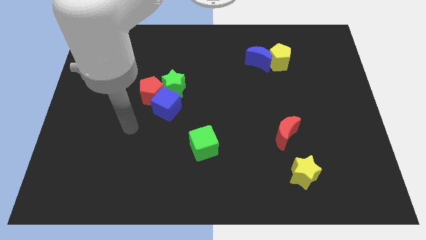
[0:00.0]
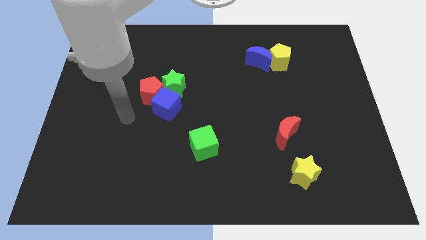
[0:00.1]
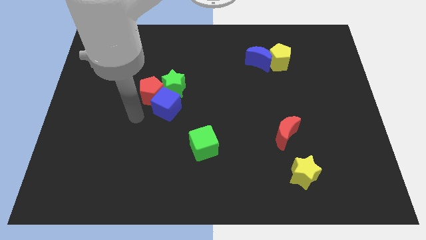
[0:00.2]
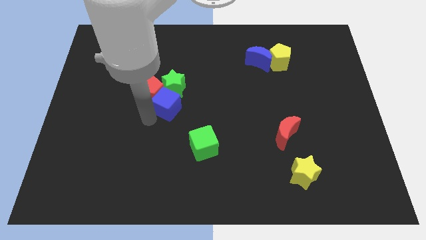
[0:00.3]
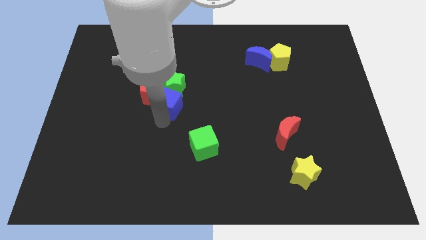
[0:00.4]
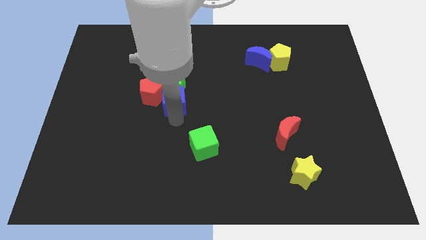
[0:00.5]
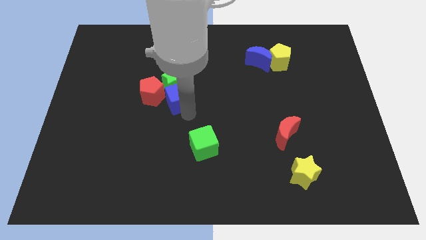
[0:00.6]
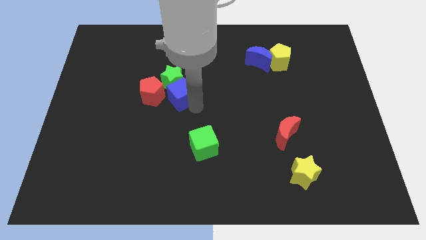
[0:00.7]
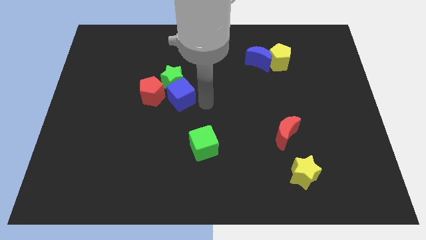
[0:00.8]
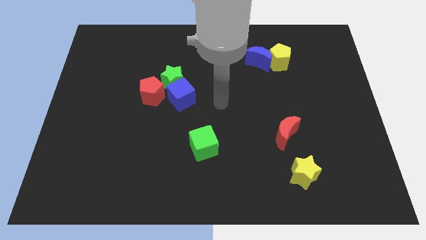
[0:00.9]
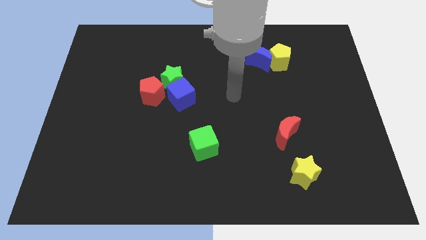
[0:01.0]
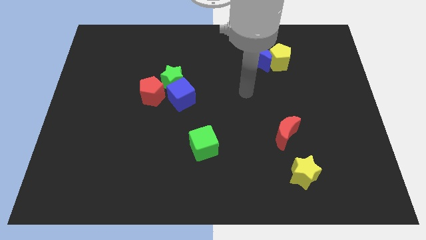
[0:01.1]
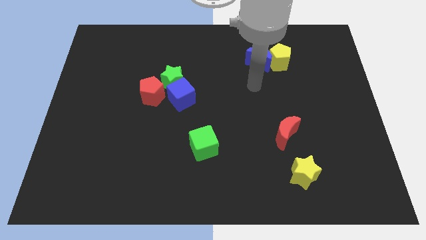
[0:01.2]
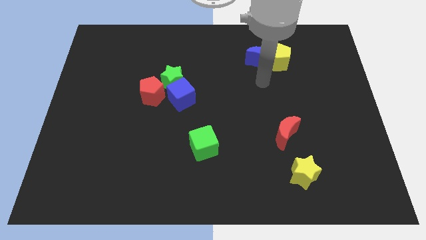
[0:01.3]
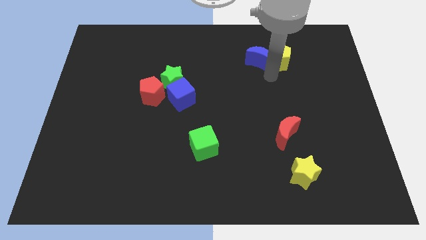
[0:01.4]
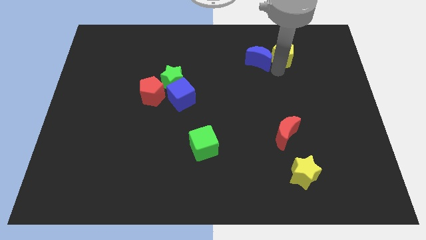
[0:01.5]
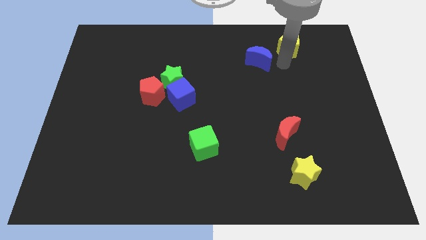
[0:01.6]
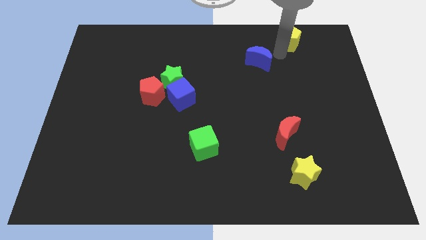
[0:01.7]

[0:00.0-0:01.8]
separate the blue moon from the yellow pentagon

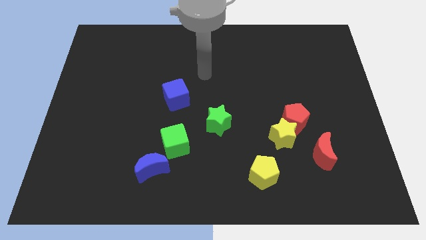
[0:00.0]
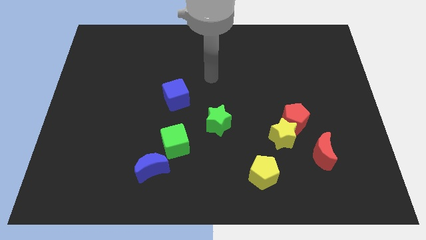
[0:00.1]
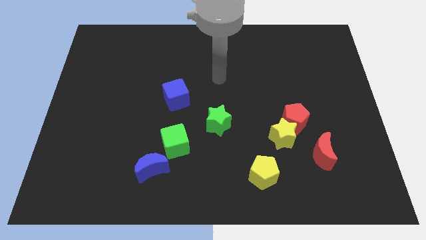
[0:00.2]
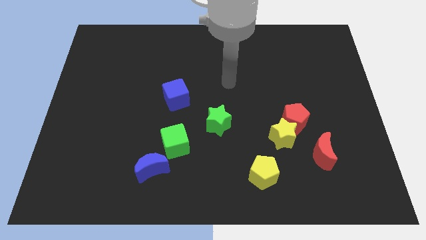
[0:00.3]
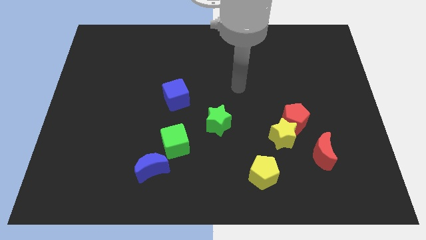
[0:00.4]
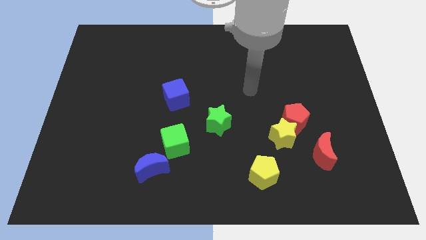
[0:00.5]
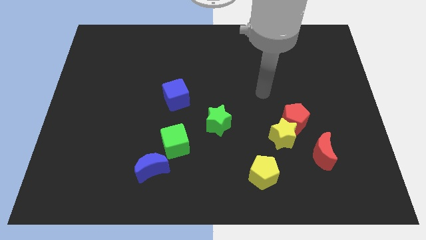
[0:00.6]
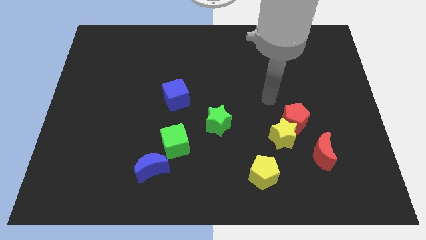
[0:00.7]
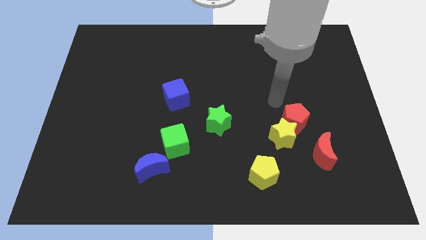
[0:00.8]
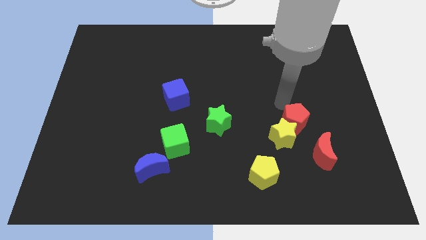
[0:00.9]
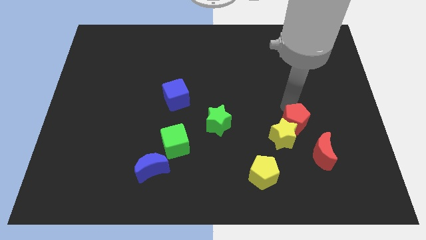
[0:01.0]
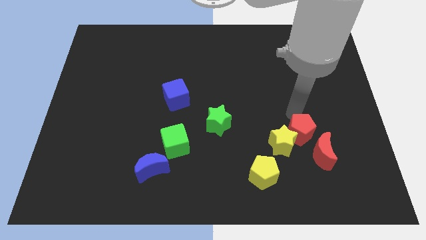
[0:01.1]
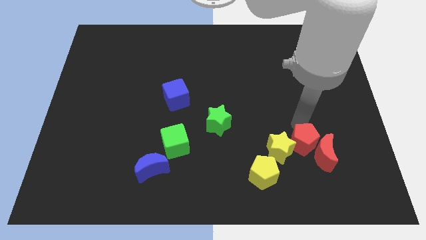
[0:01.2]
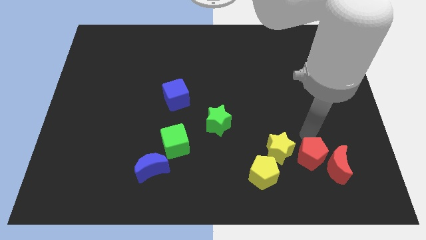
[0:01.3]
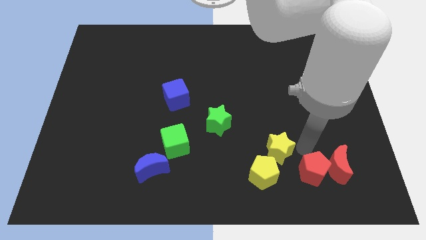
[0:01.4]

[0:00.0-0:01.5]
separate the yellow star from the red pentagon and red moon

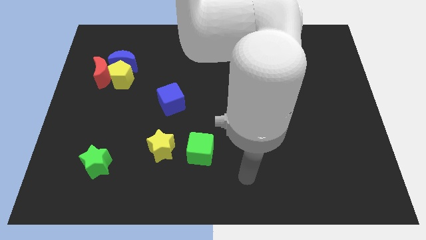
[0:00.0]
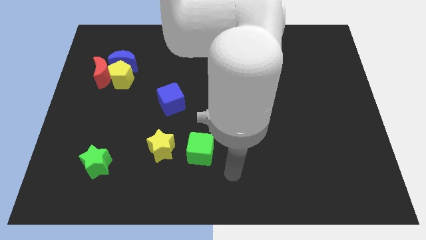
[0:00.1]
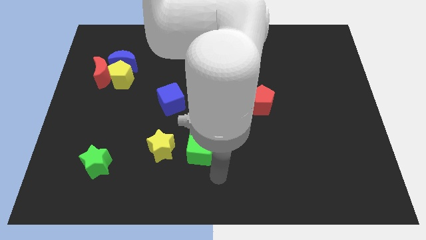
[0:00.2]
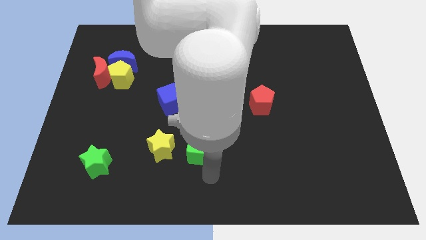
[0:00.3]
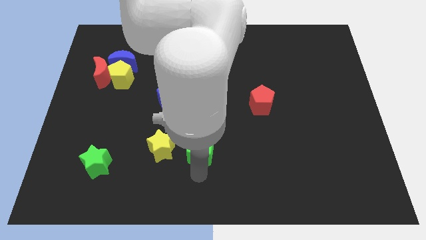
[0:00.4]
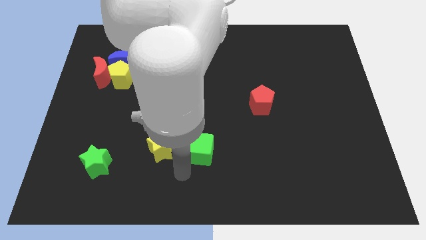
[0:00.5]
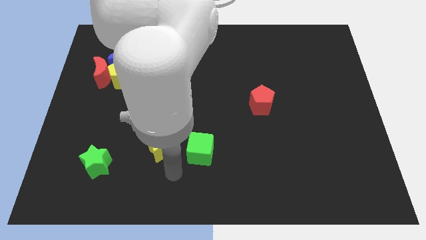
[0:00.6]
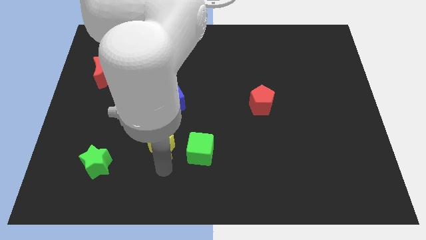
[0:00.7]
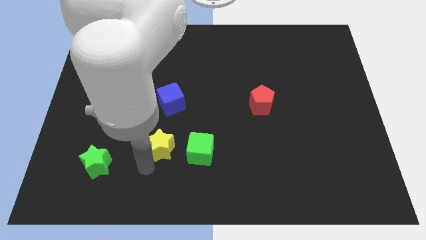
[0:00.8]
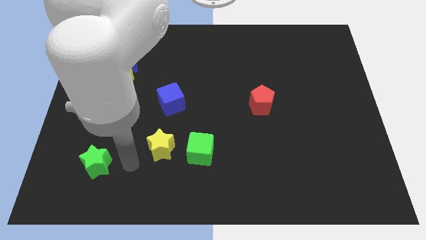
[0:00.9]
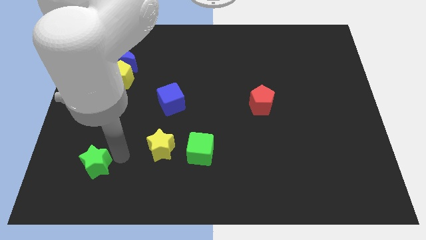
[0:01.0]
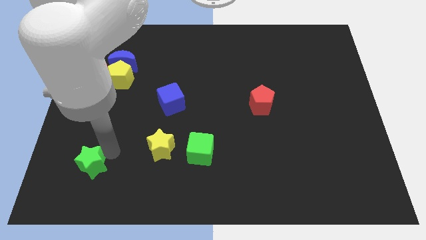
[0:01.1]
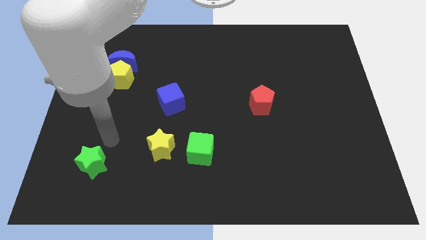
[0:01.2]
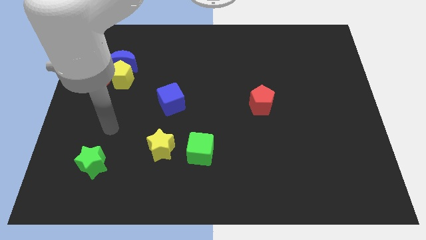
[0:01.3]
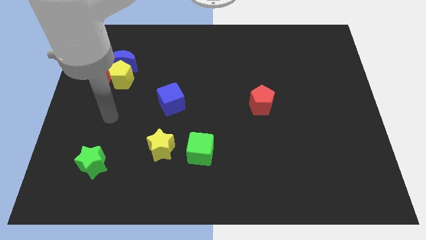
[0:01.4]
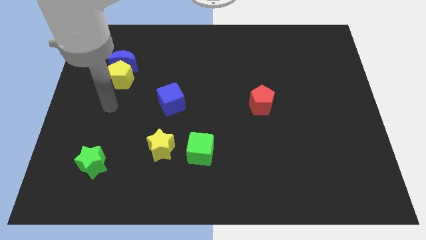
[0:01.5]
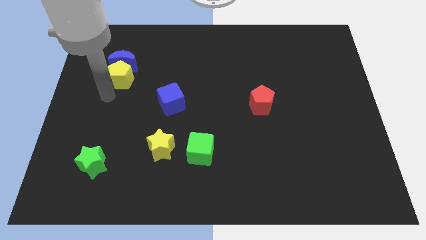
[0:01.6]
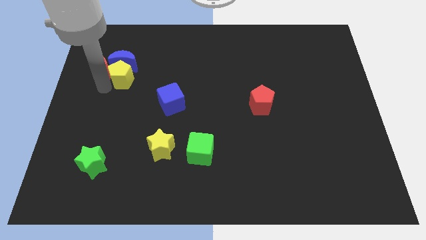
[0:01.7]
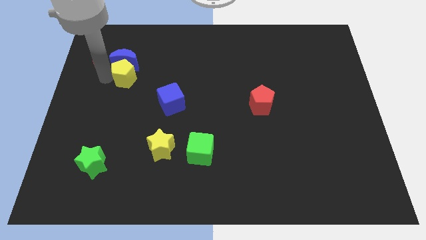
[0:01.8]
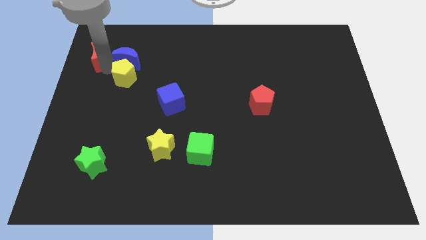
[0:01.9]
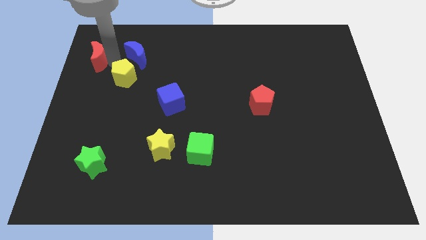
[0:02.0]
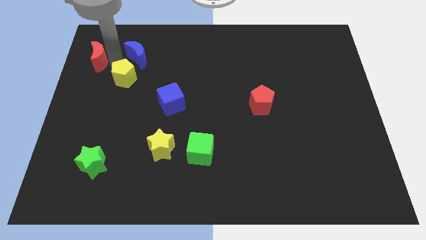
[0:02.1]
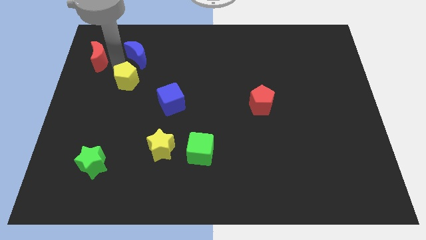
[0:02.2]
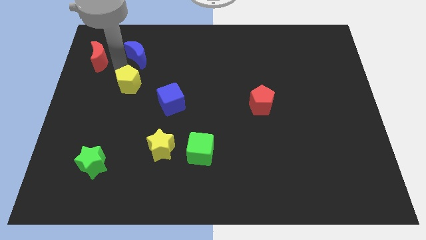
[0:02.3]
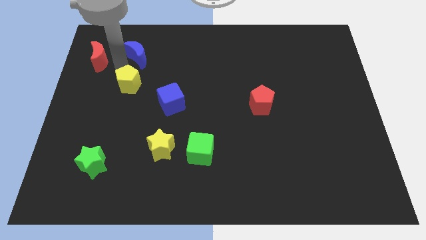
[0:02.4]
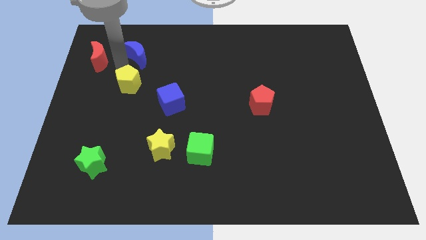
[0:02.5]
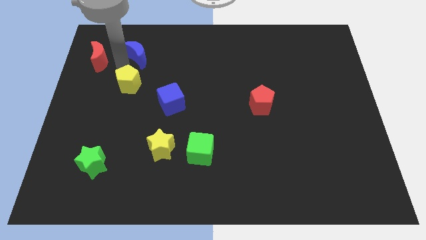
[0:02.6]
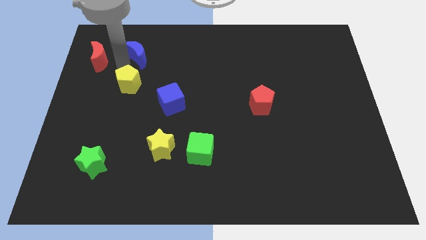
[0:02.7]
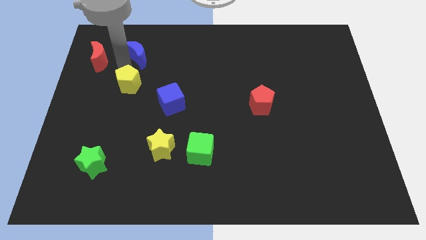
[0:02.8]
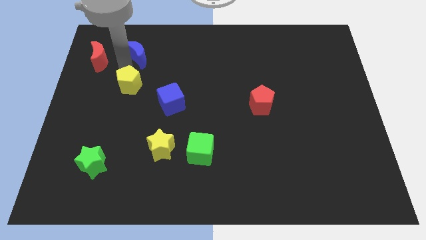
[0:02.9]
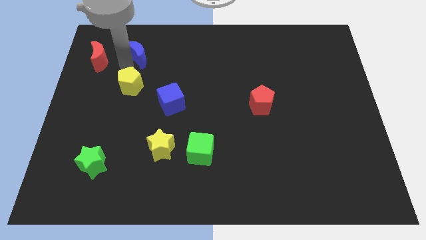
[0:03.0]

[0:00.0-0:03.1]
move the yellow pentagon away from the blue moon and red moon

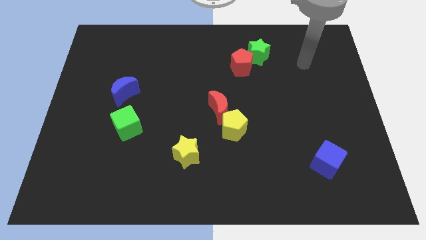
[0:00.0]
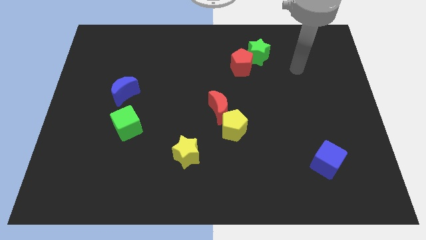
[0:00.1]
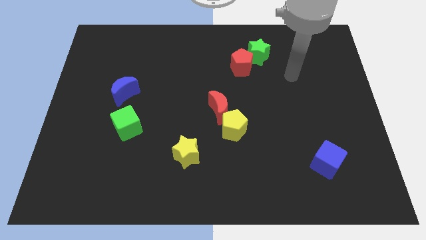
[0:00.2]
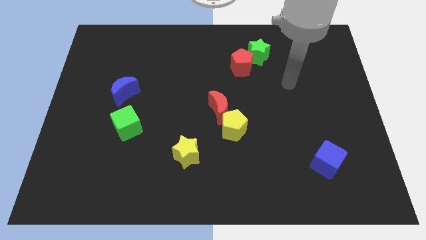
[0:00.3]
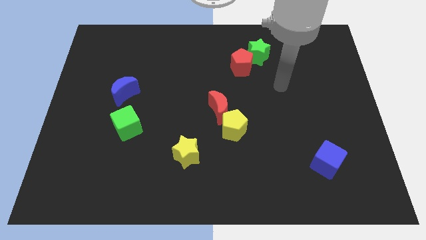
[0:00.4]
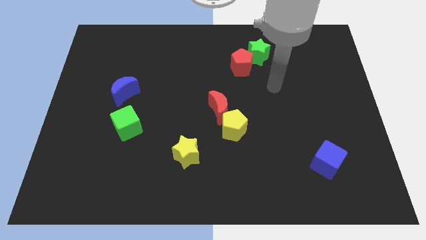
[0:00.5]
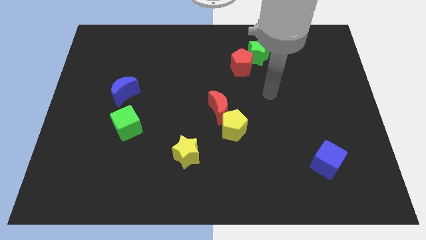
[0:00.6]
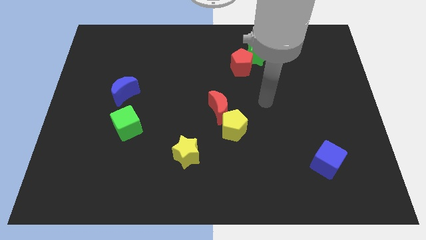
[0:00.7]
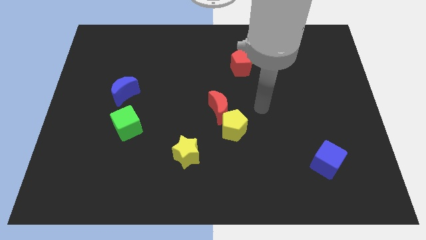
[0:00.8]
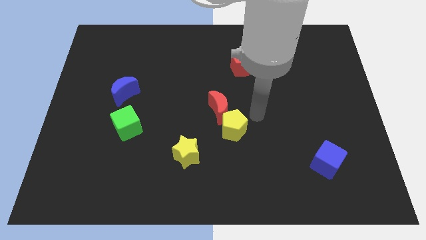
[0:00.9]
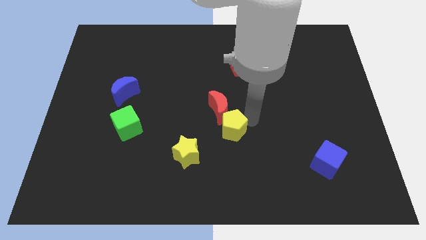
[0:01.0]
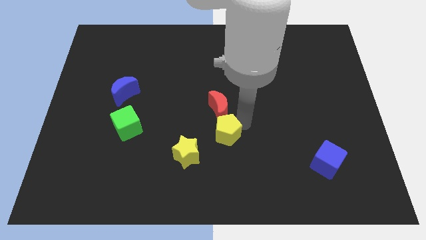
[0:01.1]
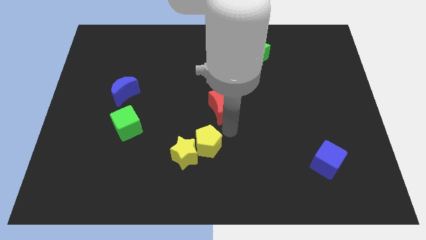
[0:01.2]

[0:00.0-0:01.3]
move the red moon away from the yellow pentagon

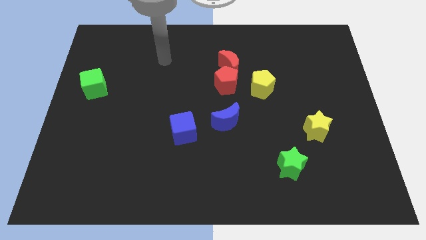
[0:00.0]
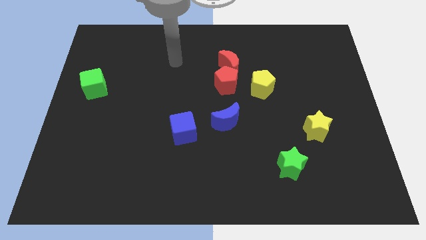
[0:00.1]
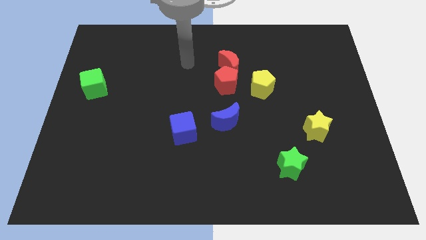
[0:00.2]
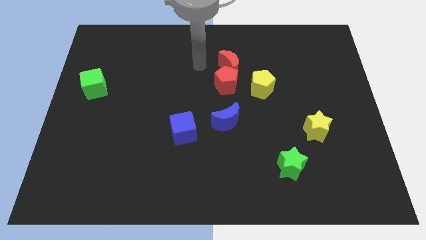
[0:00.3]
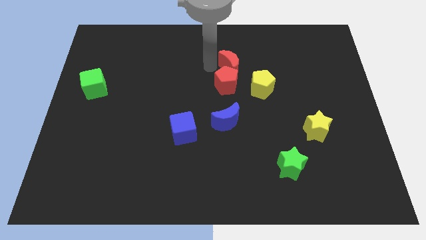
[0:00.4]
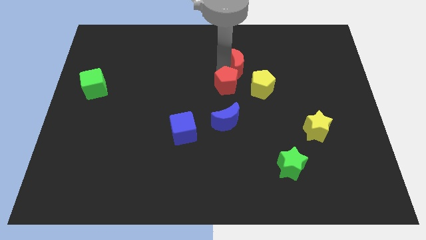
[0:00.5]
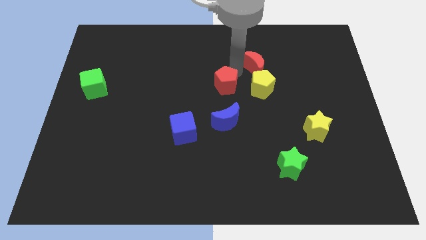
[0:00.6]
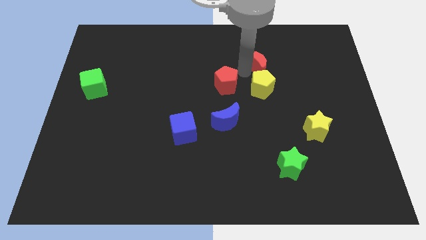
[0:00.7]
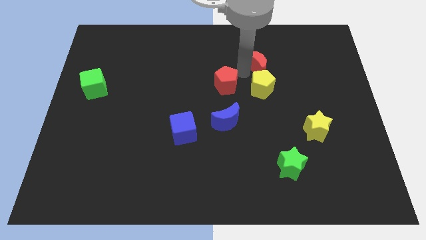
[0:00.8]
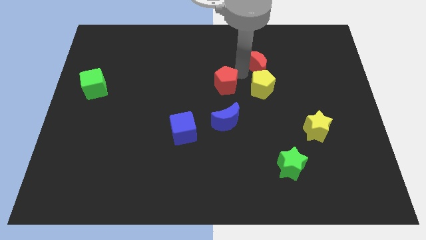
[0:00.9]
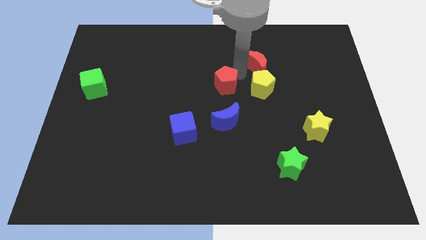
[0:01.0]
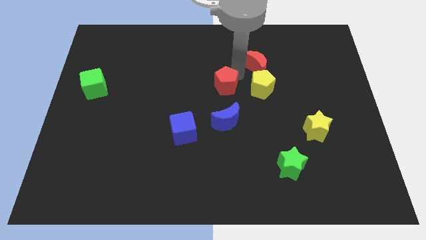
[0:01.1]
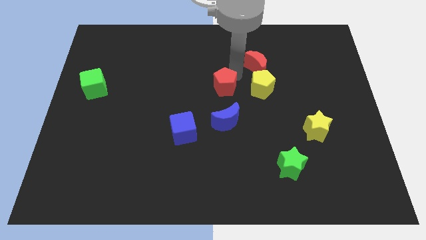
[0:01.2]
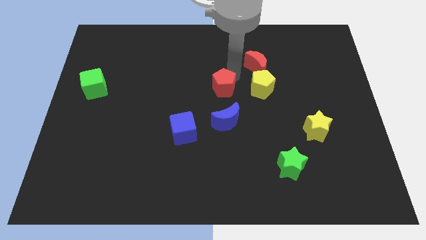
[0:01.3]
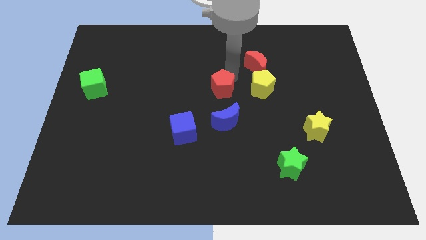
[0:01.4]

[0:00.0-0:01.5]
move the red pentagon away from the red moon and yellow pentagon
